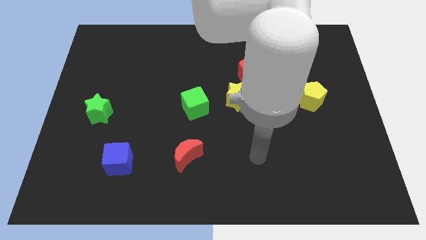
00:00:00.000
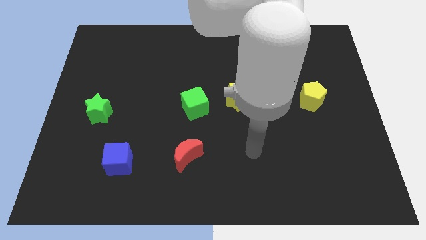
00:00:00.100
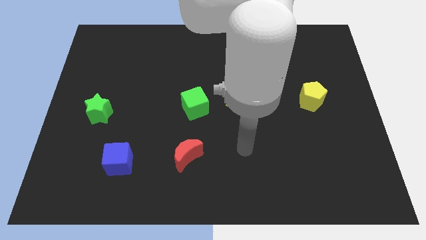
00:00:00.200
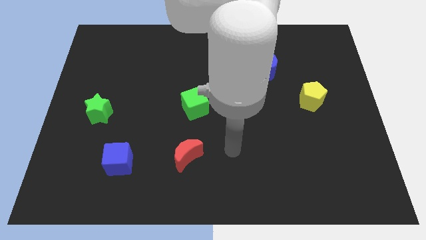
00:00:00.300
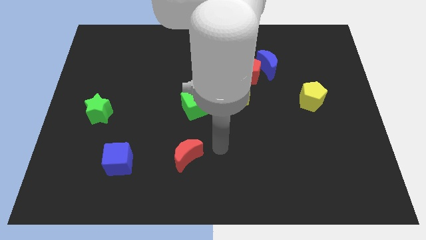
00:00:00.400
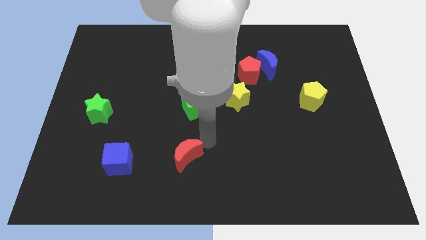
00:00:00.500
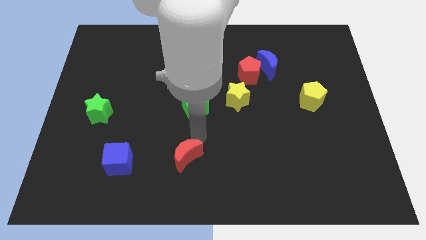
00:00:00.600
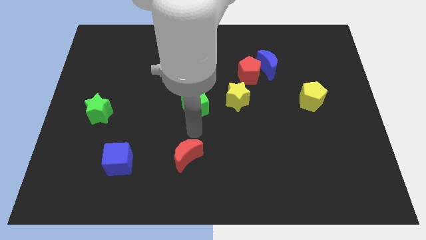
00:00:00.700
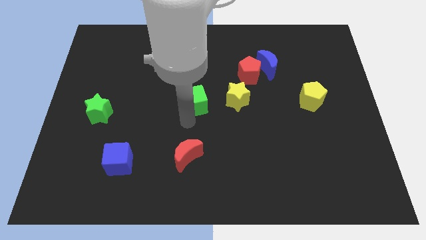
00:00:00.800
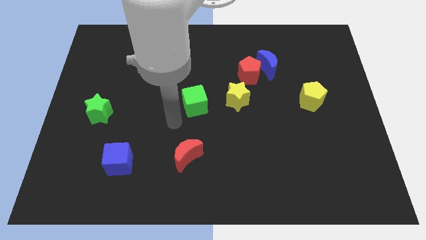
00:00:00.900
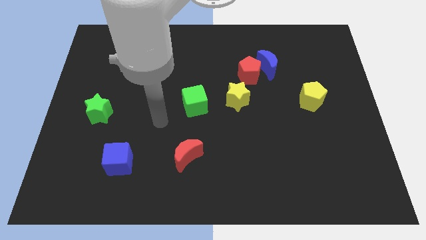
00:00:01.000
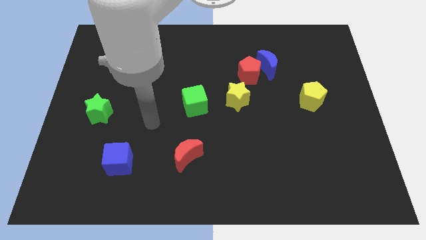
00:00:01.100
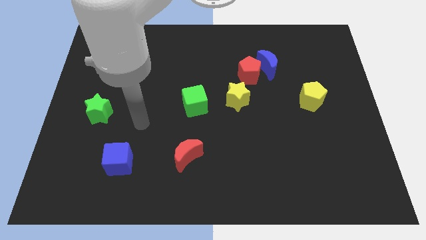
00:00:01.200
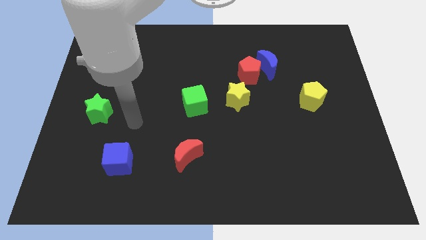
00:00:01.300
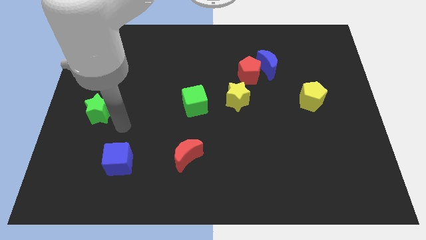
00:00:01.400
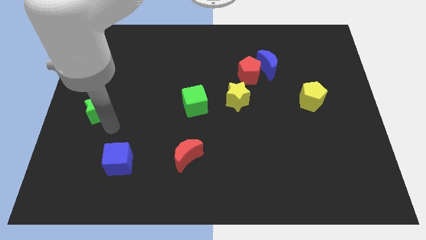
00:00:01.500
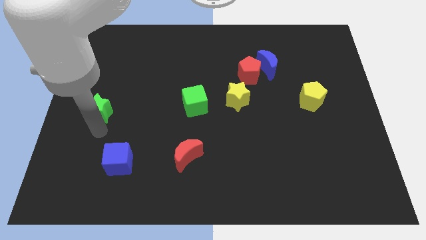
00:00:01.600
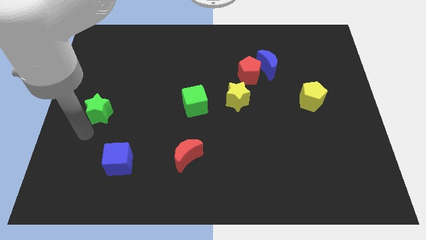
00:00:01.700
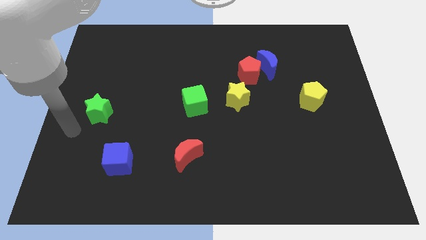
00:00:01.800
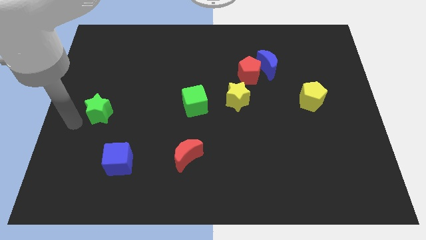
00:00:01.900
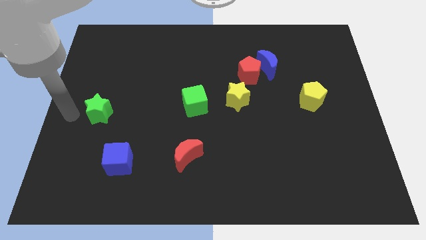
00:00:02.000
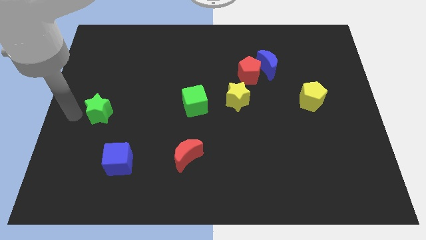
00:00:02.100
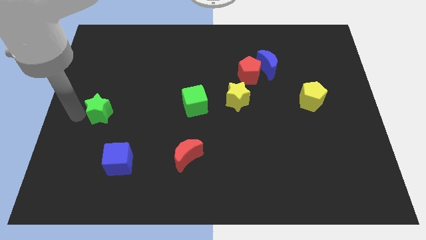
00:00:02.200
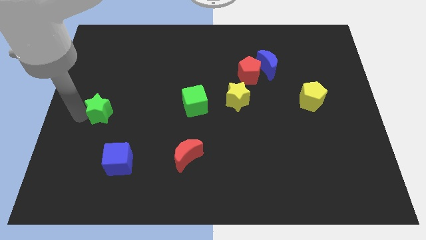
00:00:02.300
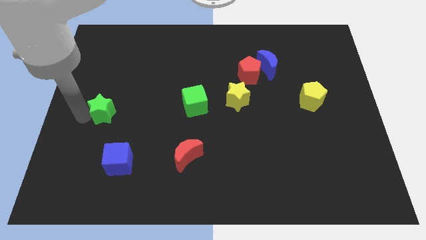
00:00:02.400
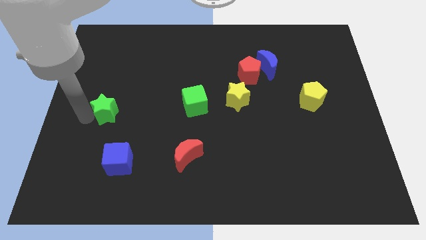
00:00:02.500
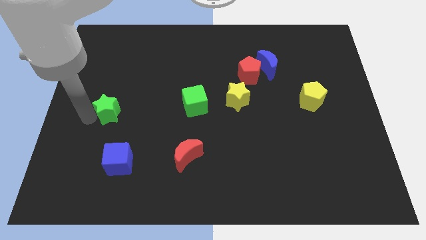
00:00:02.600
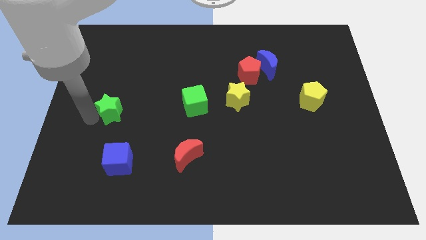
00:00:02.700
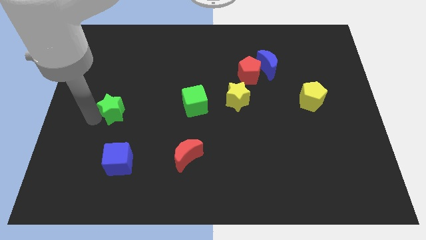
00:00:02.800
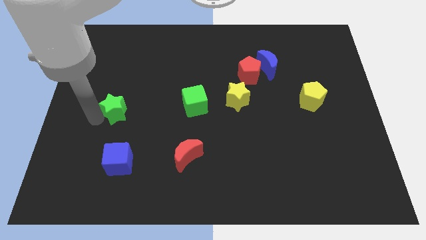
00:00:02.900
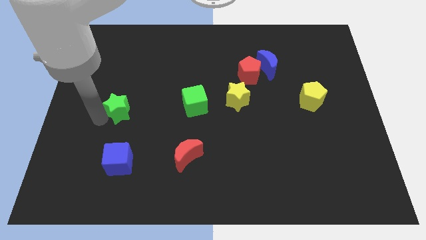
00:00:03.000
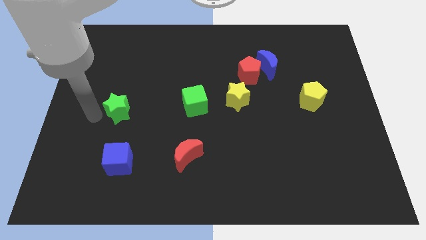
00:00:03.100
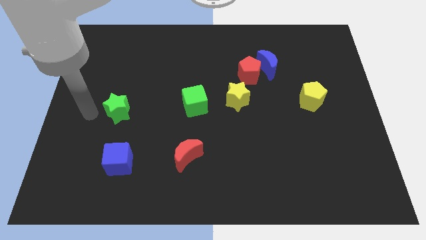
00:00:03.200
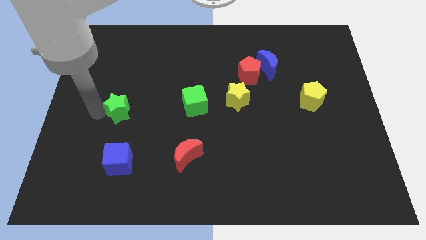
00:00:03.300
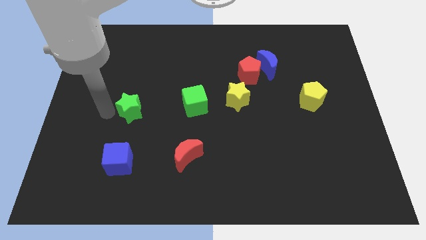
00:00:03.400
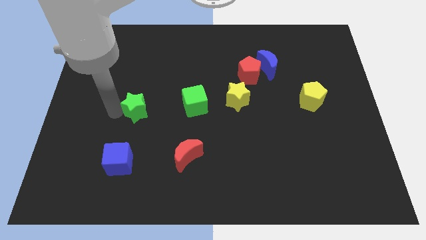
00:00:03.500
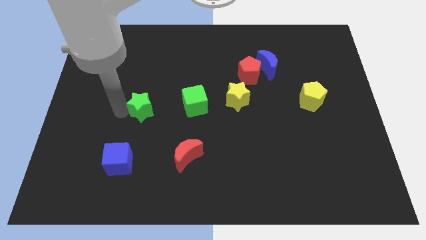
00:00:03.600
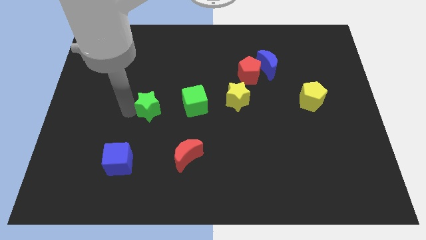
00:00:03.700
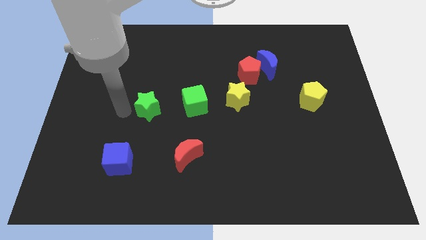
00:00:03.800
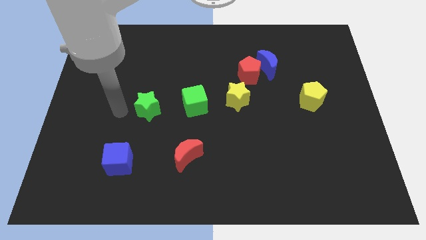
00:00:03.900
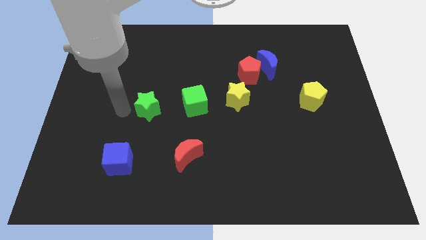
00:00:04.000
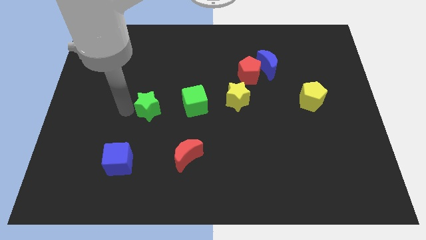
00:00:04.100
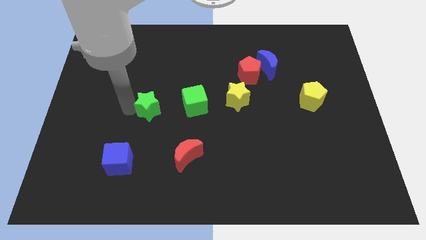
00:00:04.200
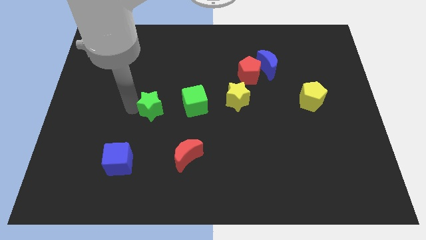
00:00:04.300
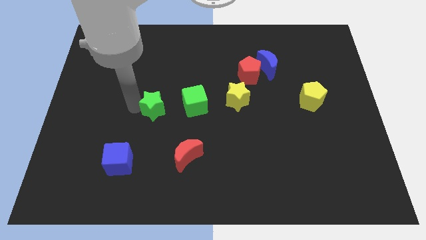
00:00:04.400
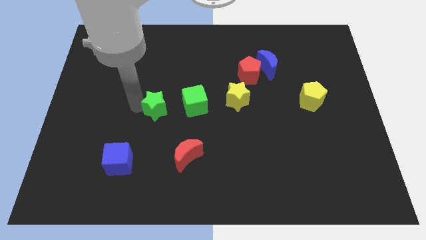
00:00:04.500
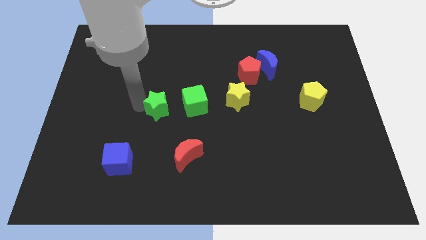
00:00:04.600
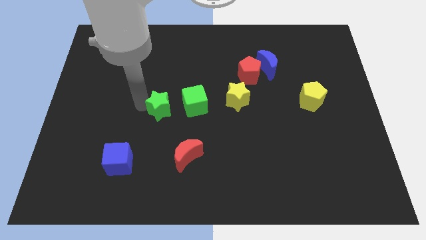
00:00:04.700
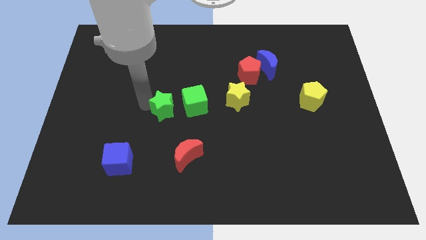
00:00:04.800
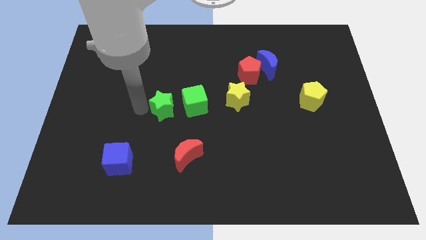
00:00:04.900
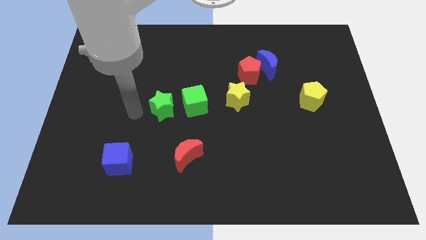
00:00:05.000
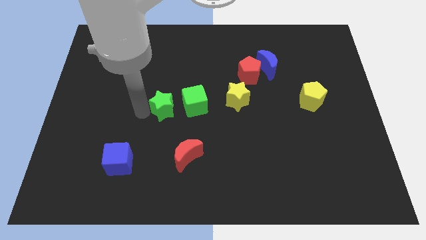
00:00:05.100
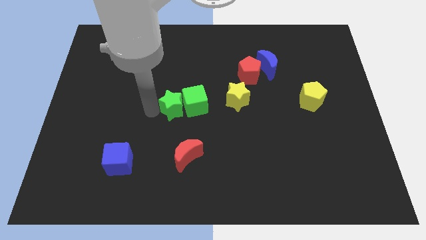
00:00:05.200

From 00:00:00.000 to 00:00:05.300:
push the green star close to the green cube

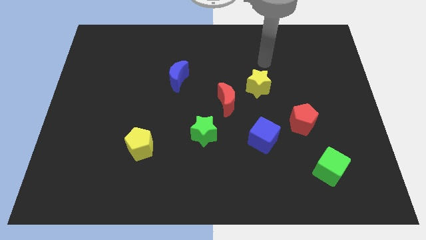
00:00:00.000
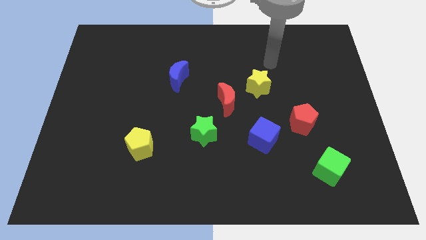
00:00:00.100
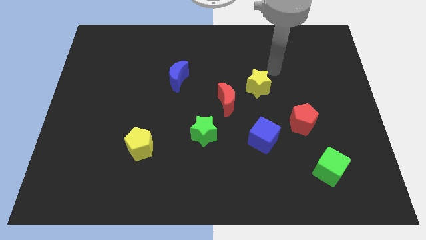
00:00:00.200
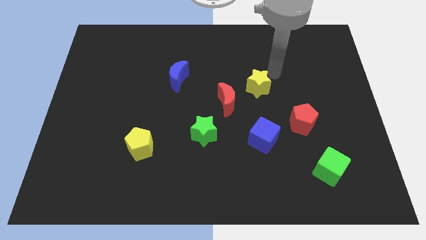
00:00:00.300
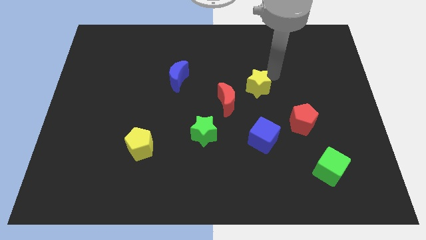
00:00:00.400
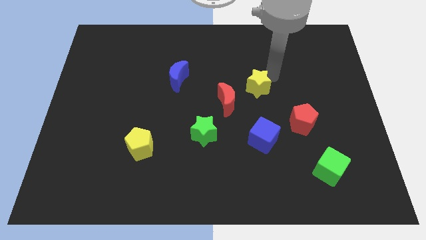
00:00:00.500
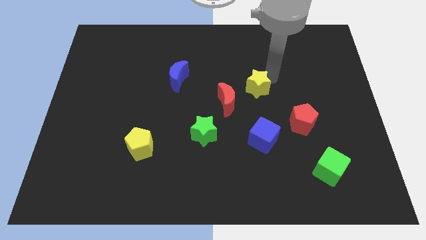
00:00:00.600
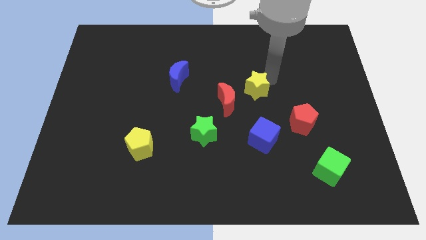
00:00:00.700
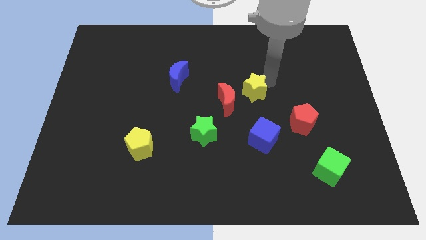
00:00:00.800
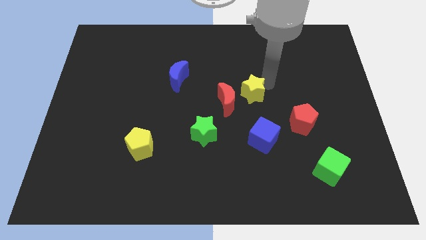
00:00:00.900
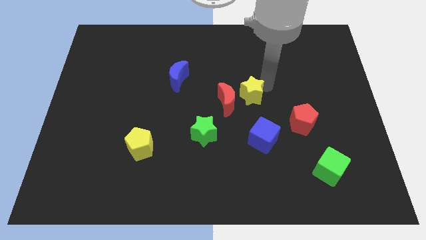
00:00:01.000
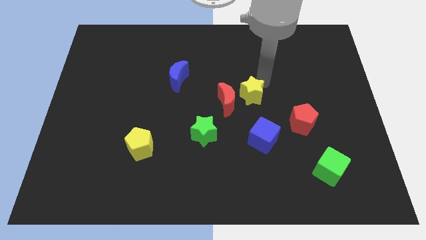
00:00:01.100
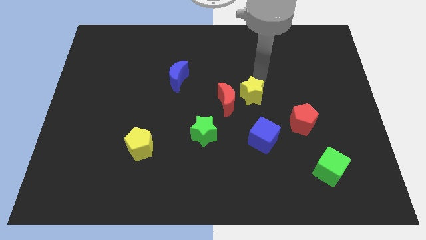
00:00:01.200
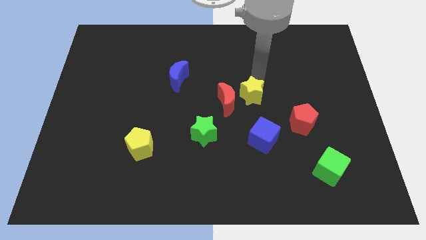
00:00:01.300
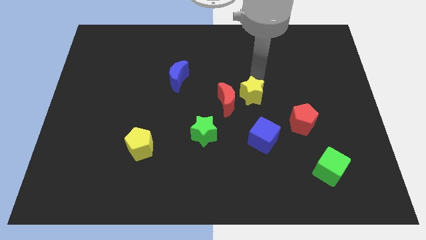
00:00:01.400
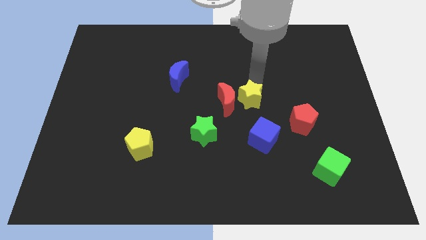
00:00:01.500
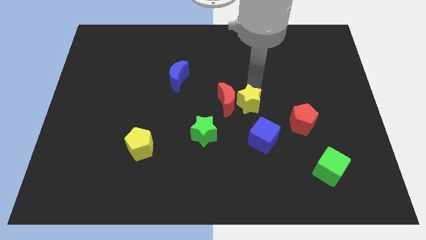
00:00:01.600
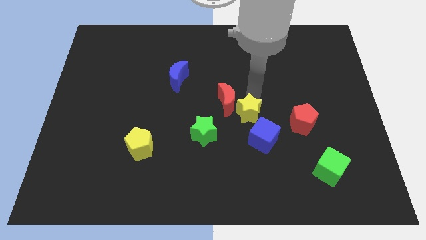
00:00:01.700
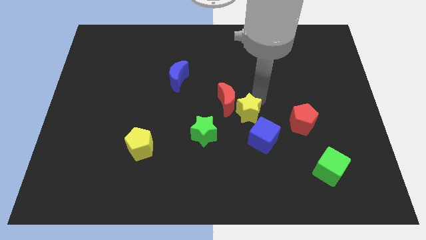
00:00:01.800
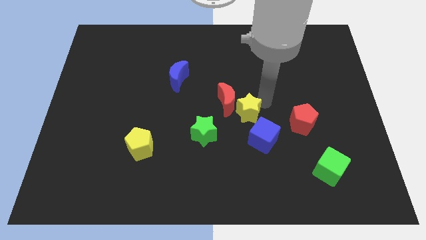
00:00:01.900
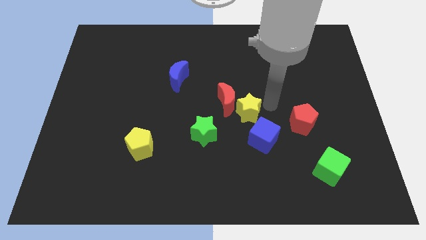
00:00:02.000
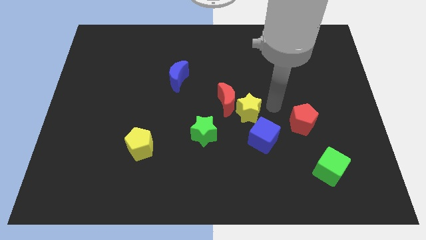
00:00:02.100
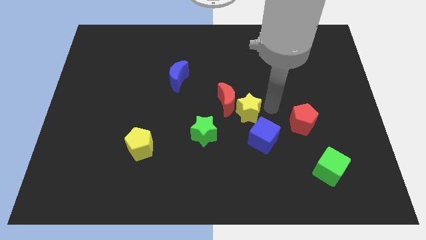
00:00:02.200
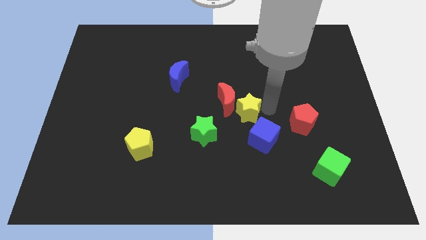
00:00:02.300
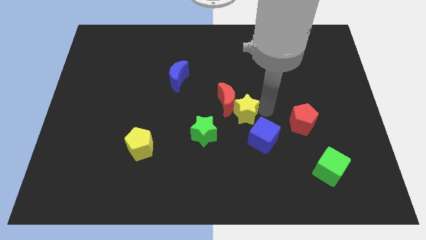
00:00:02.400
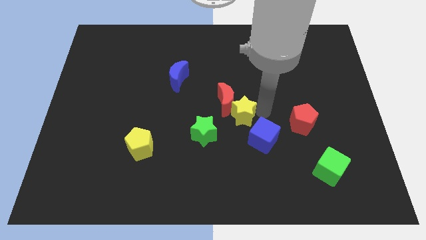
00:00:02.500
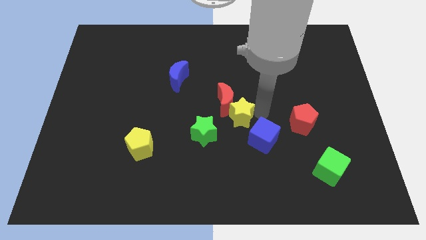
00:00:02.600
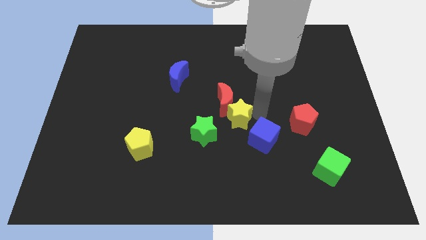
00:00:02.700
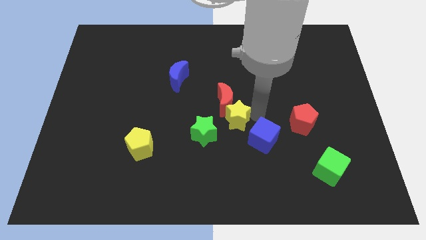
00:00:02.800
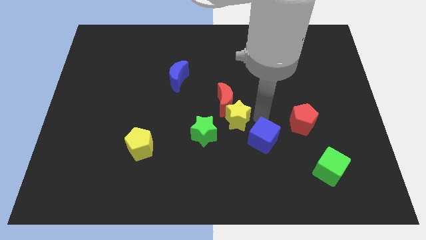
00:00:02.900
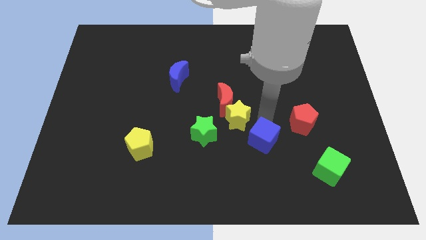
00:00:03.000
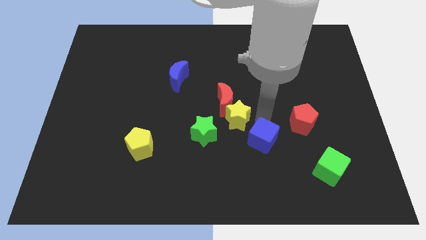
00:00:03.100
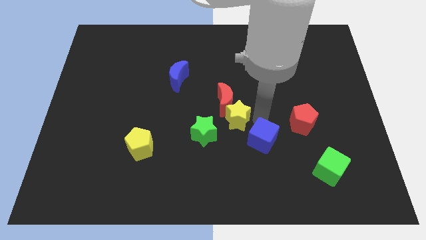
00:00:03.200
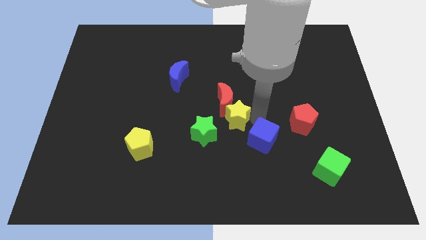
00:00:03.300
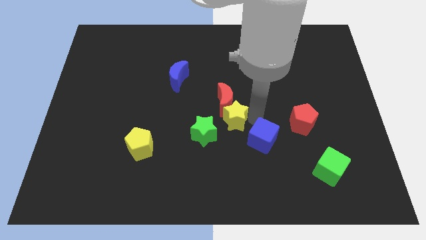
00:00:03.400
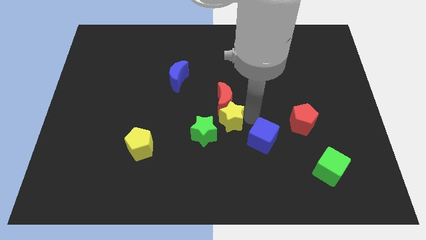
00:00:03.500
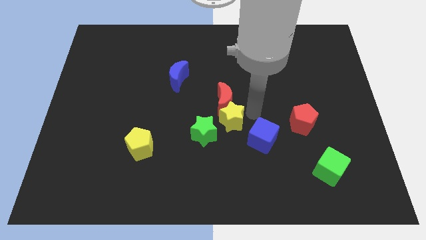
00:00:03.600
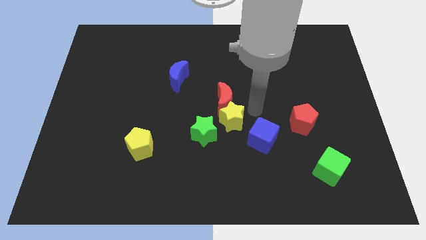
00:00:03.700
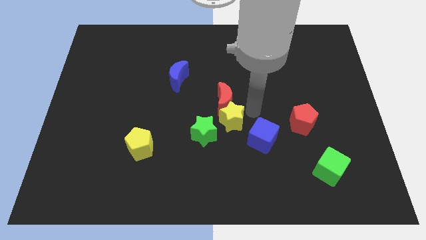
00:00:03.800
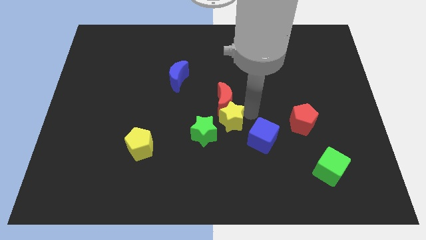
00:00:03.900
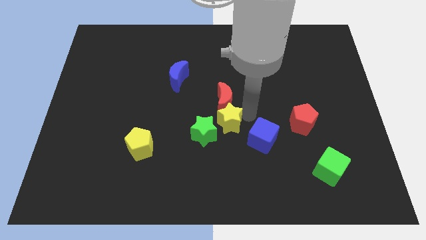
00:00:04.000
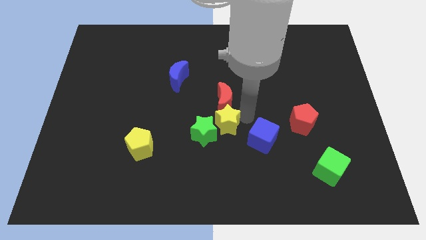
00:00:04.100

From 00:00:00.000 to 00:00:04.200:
move the yellow star towards the green star
